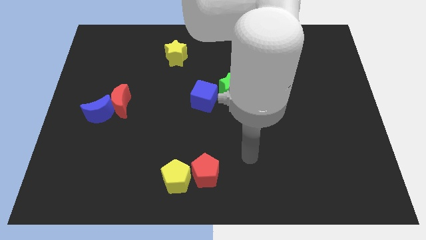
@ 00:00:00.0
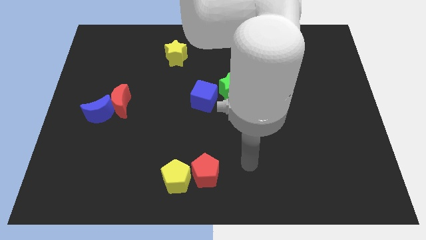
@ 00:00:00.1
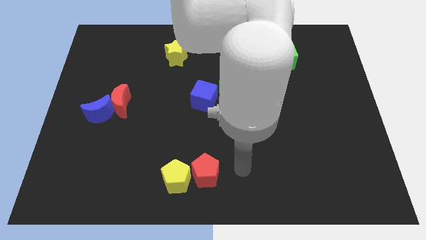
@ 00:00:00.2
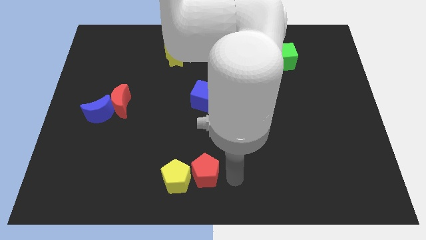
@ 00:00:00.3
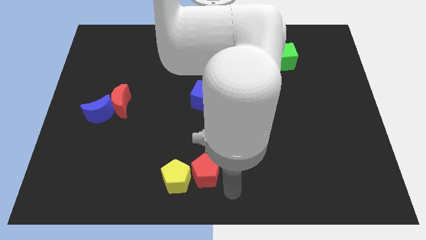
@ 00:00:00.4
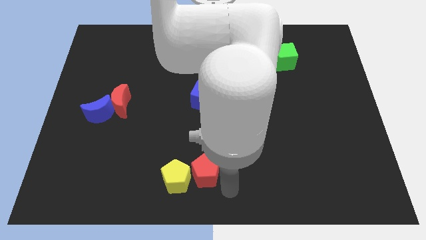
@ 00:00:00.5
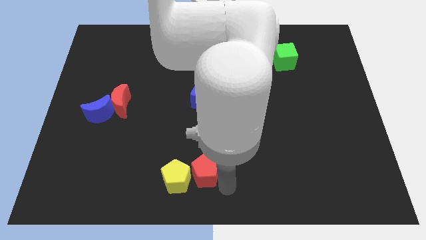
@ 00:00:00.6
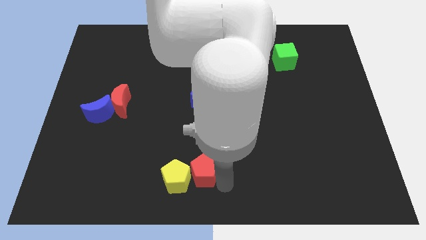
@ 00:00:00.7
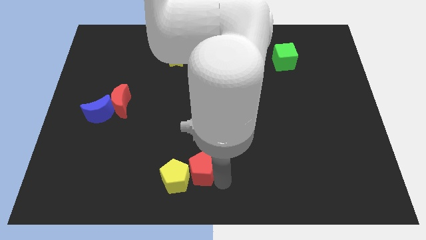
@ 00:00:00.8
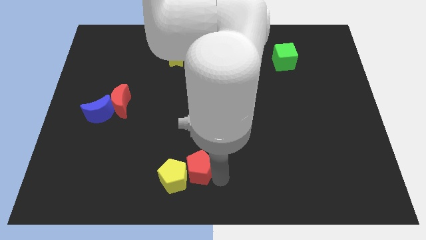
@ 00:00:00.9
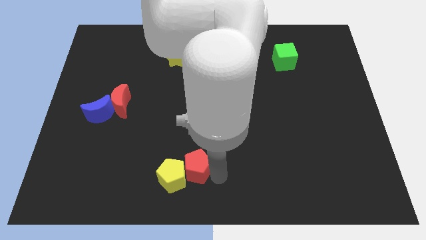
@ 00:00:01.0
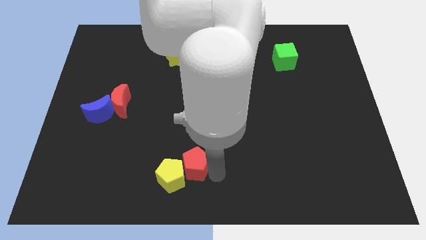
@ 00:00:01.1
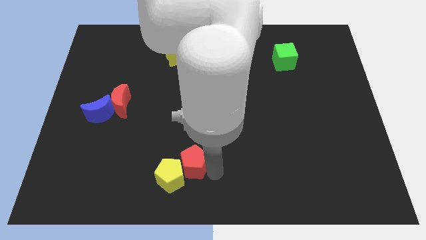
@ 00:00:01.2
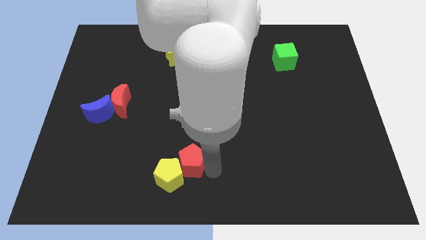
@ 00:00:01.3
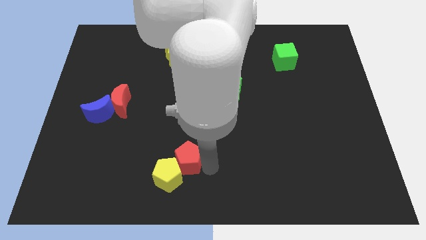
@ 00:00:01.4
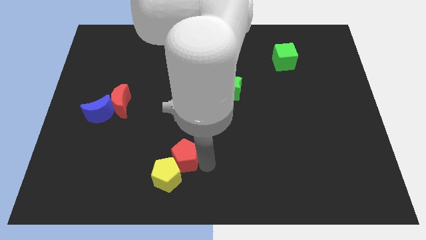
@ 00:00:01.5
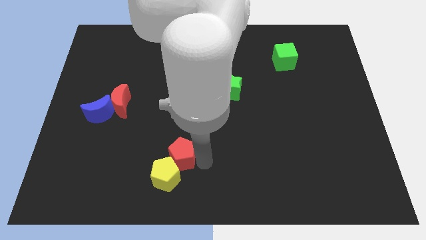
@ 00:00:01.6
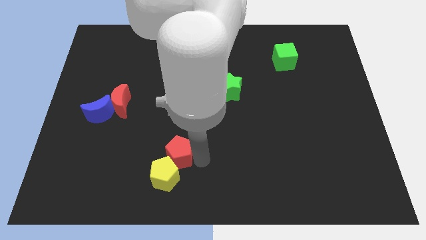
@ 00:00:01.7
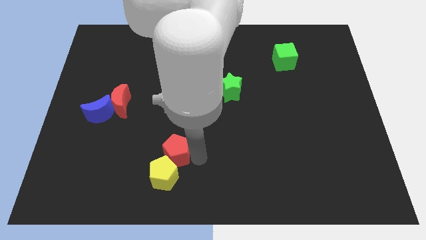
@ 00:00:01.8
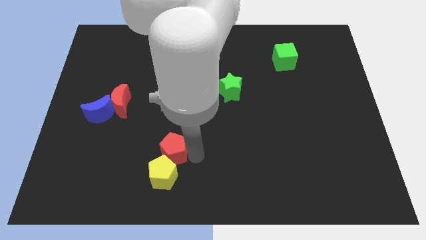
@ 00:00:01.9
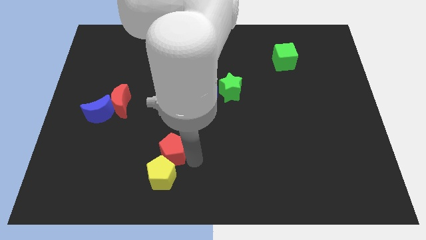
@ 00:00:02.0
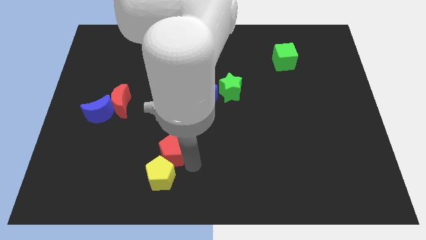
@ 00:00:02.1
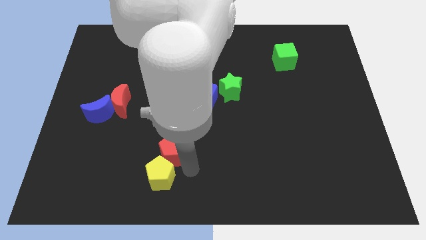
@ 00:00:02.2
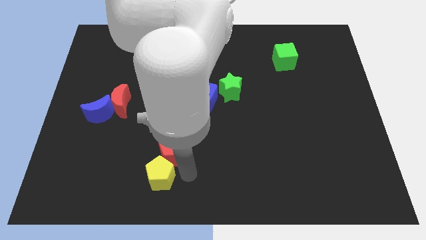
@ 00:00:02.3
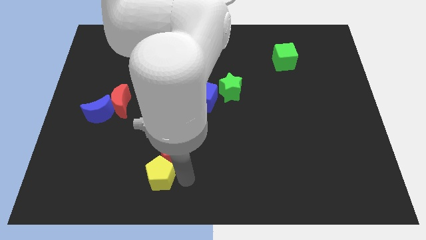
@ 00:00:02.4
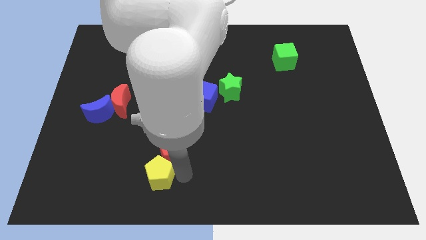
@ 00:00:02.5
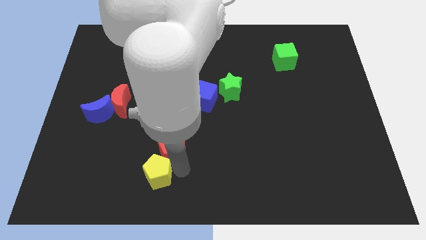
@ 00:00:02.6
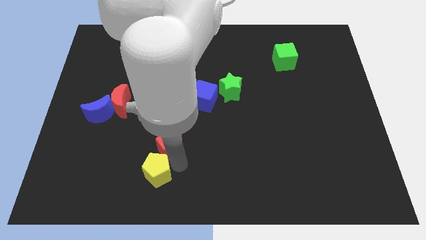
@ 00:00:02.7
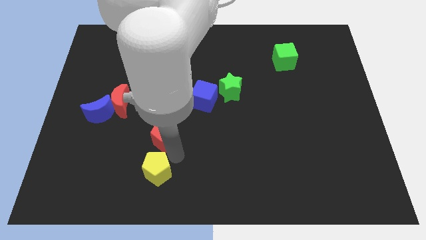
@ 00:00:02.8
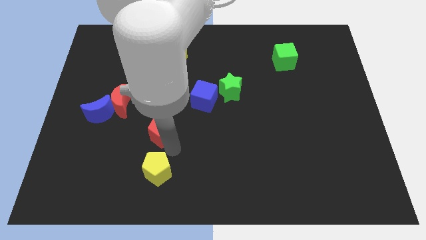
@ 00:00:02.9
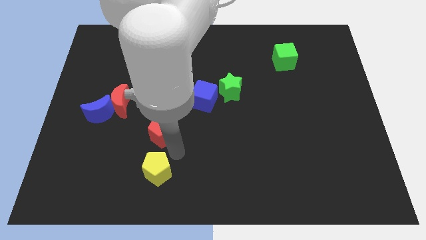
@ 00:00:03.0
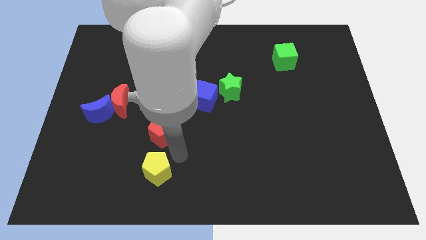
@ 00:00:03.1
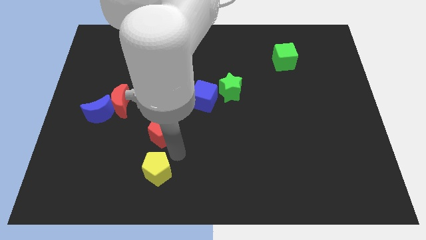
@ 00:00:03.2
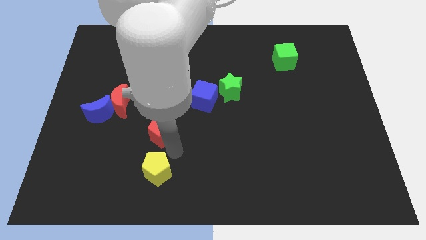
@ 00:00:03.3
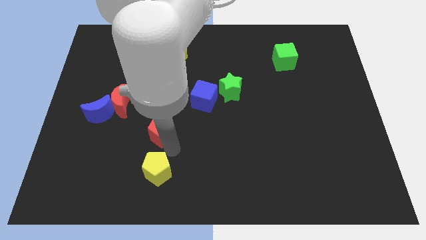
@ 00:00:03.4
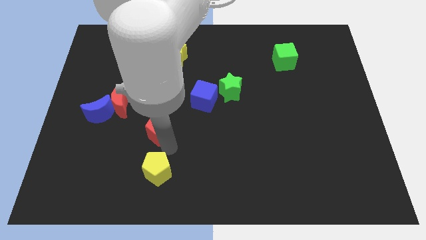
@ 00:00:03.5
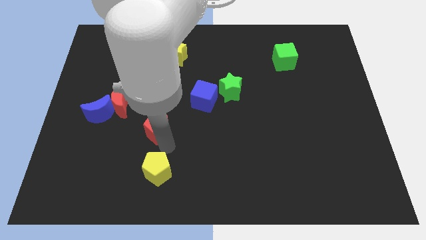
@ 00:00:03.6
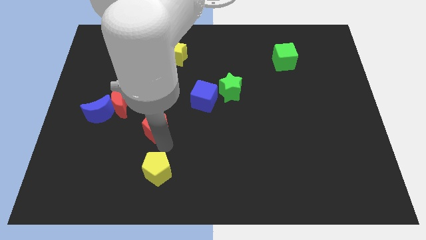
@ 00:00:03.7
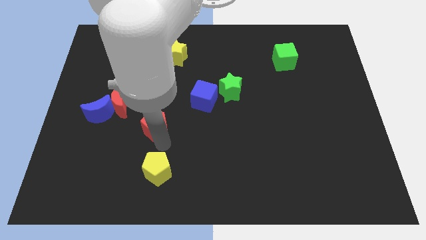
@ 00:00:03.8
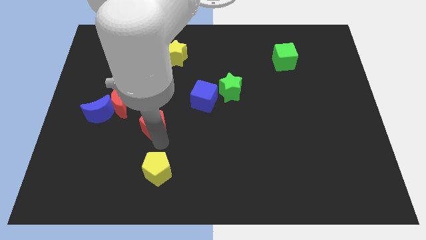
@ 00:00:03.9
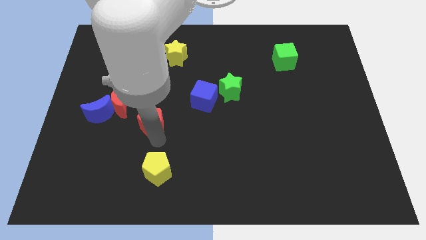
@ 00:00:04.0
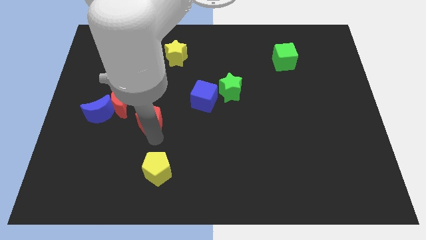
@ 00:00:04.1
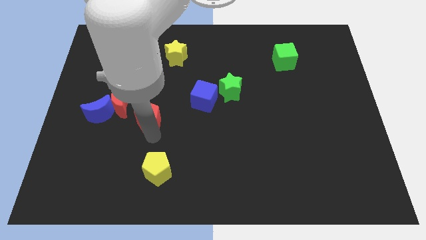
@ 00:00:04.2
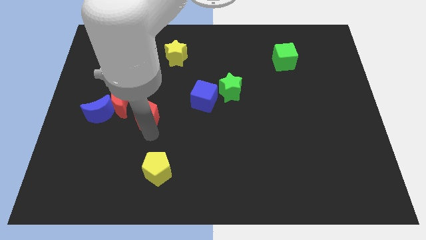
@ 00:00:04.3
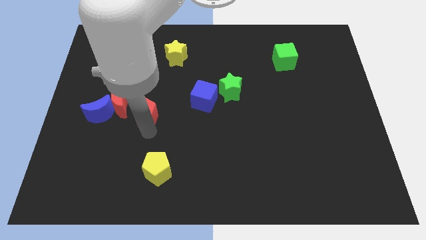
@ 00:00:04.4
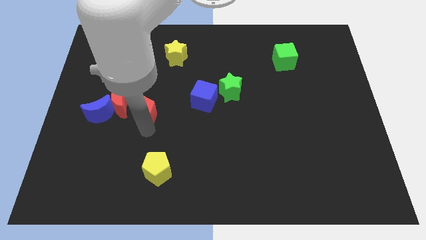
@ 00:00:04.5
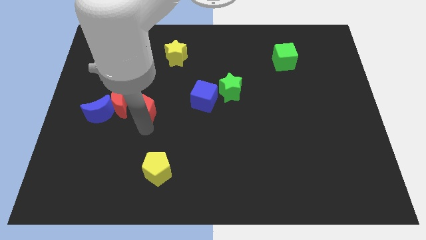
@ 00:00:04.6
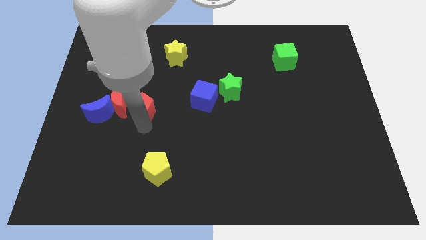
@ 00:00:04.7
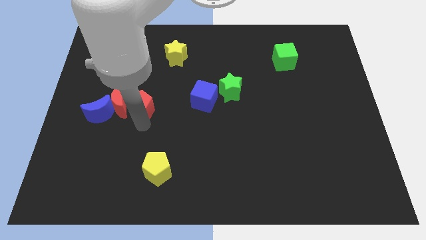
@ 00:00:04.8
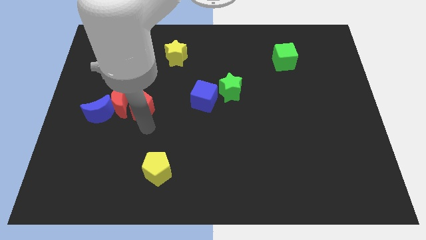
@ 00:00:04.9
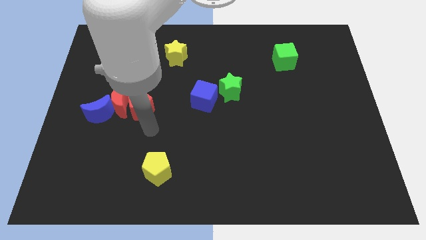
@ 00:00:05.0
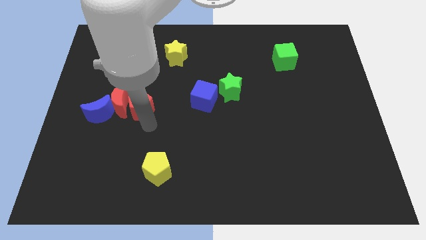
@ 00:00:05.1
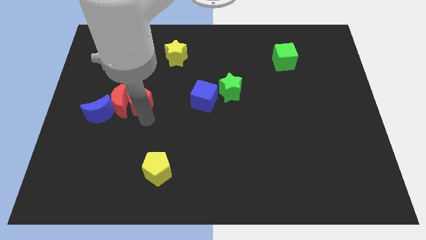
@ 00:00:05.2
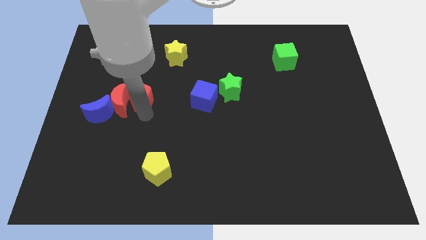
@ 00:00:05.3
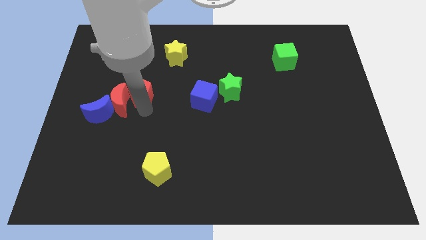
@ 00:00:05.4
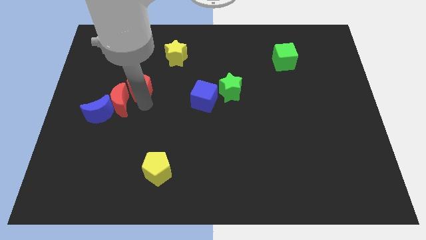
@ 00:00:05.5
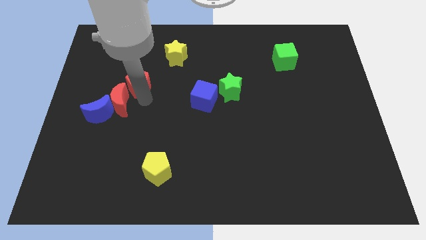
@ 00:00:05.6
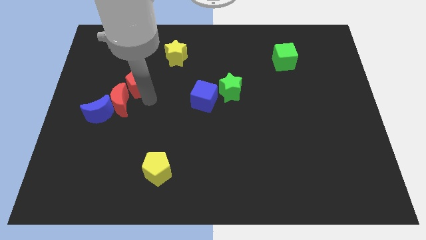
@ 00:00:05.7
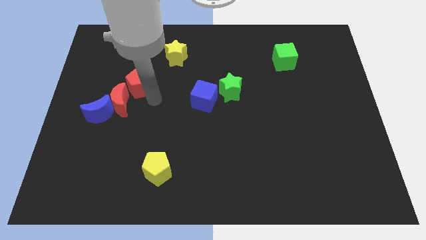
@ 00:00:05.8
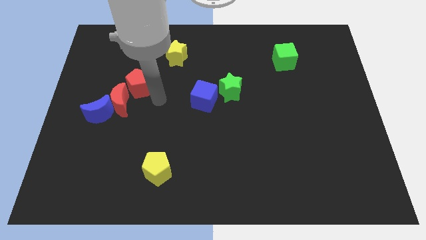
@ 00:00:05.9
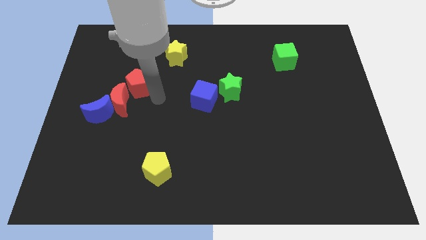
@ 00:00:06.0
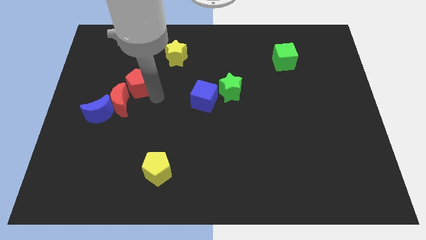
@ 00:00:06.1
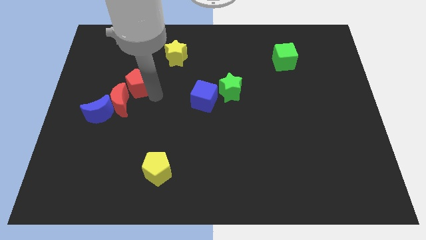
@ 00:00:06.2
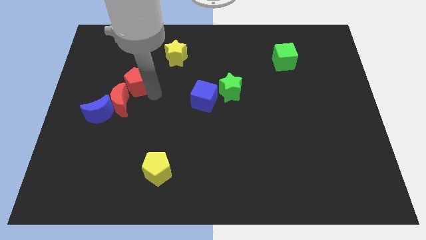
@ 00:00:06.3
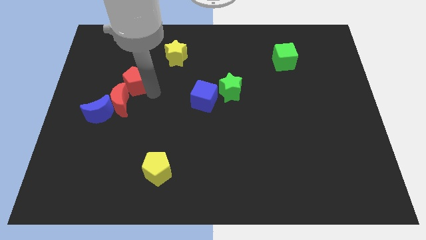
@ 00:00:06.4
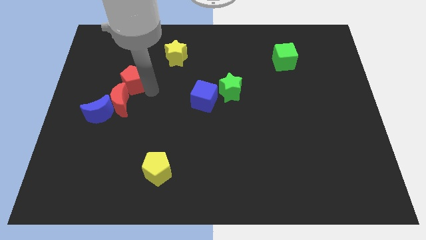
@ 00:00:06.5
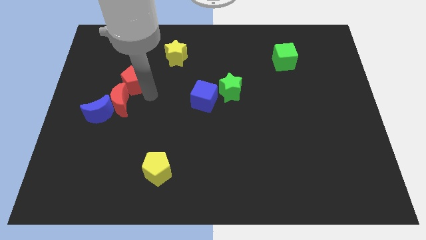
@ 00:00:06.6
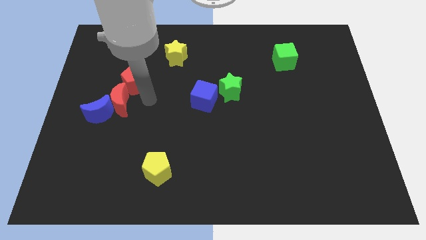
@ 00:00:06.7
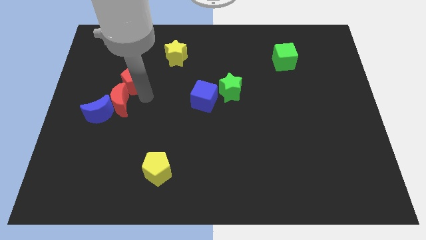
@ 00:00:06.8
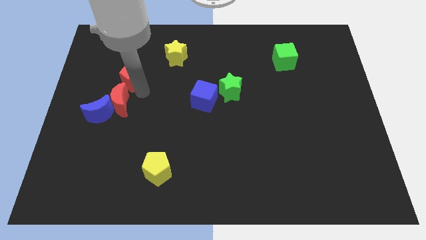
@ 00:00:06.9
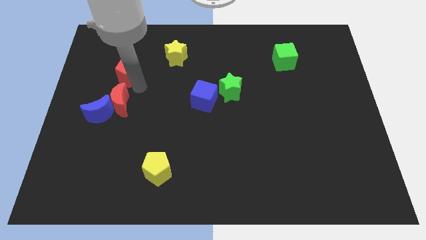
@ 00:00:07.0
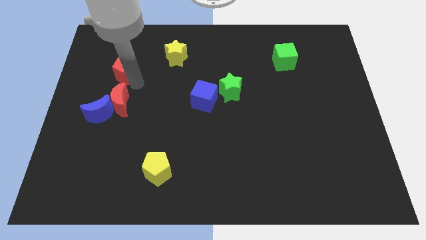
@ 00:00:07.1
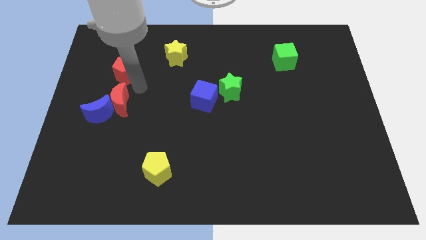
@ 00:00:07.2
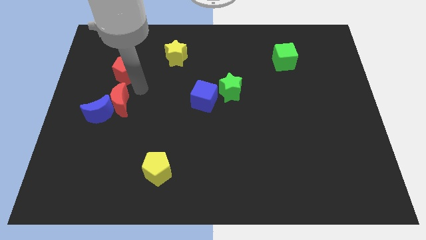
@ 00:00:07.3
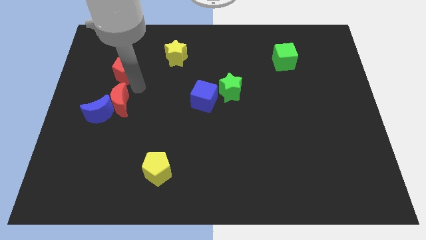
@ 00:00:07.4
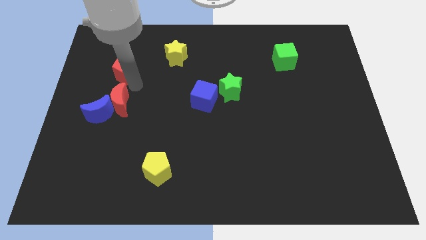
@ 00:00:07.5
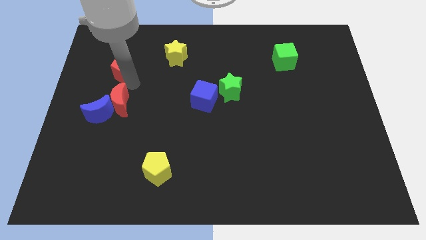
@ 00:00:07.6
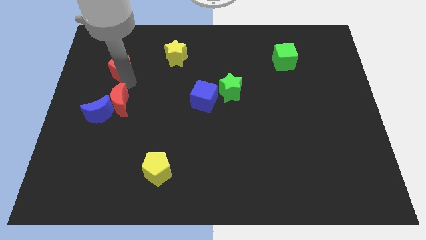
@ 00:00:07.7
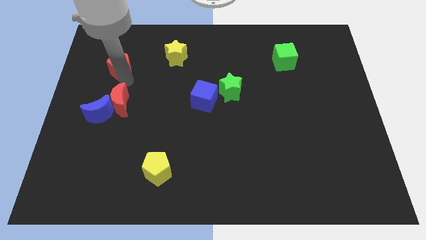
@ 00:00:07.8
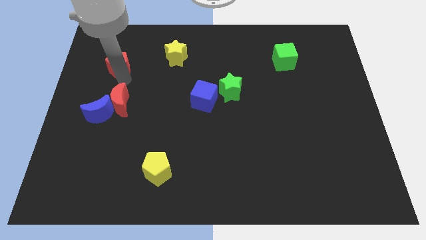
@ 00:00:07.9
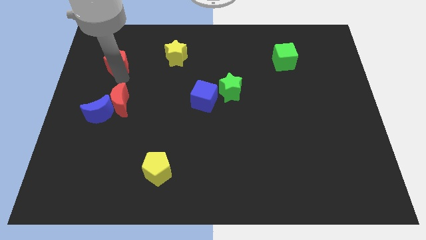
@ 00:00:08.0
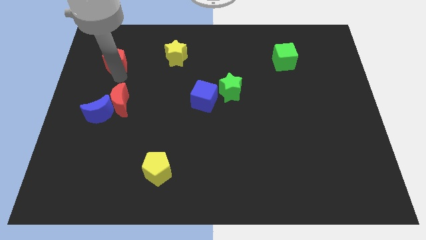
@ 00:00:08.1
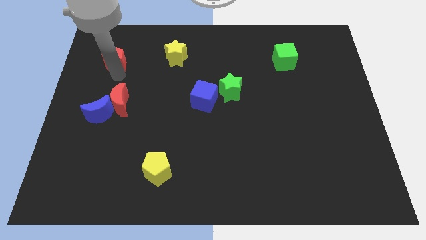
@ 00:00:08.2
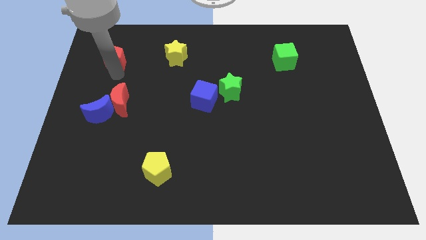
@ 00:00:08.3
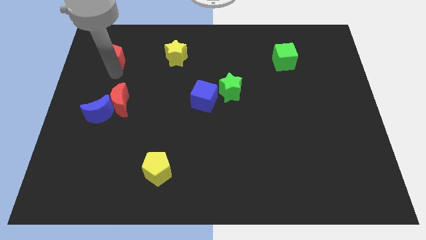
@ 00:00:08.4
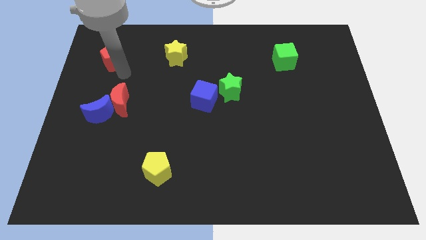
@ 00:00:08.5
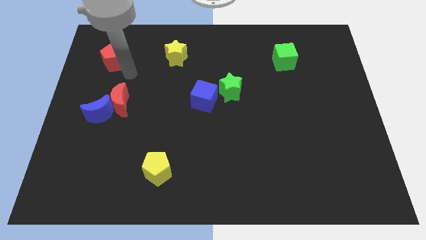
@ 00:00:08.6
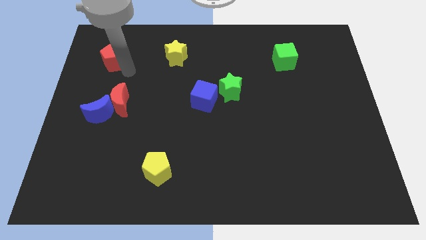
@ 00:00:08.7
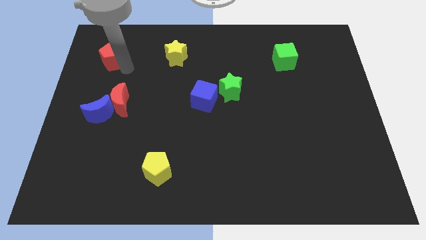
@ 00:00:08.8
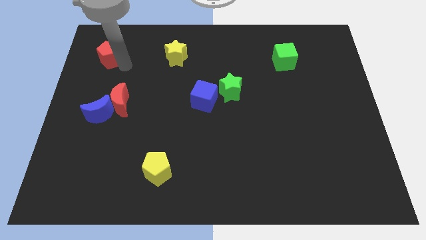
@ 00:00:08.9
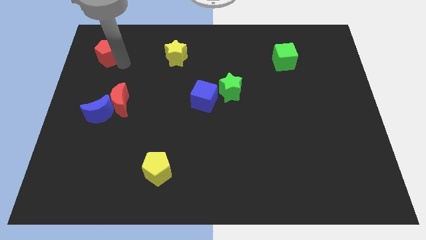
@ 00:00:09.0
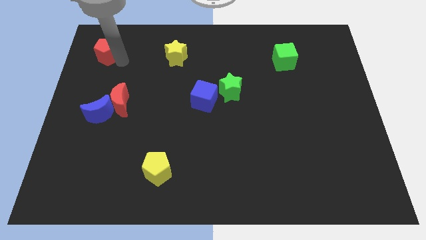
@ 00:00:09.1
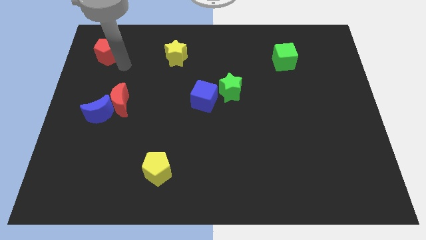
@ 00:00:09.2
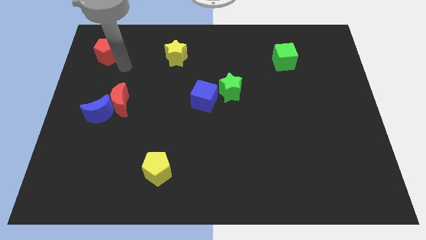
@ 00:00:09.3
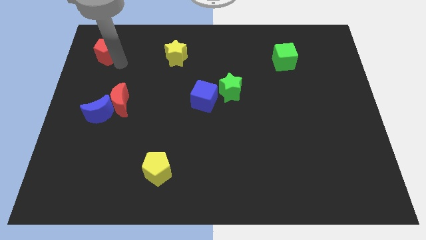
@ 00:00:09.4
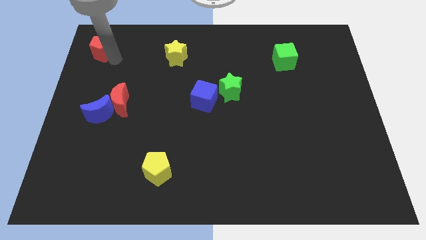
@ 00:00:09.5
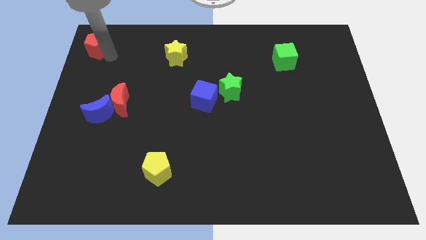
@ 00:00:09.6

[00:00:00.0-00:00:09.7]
push the red pentagon to the top left
